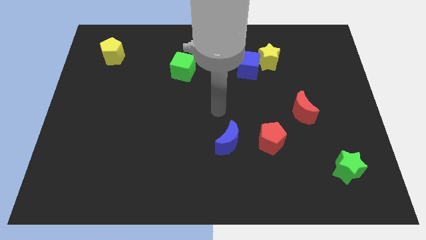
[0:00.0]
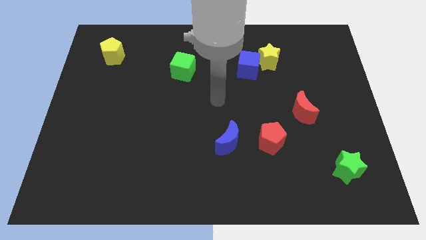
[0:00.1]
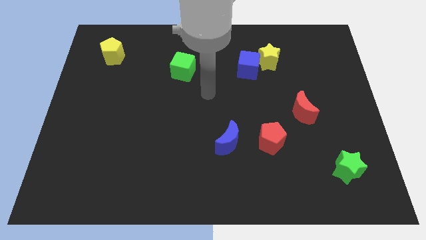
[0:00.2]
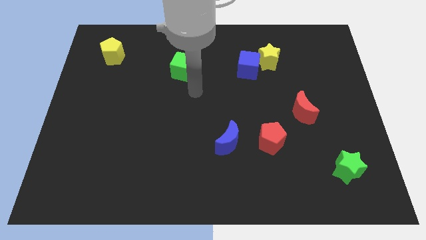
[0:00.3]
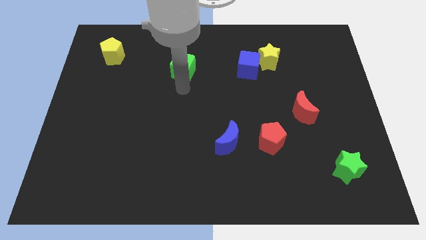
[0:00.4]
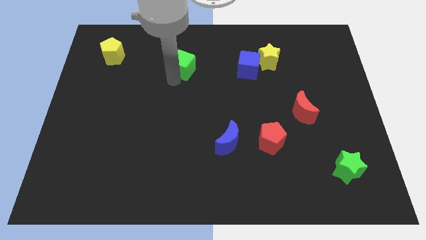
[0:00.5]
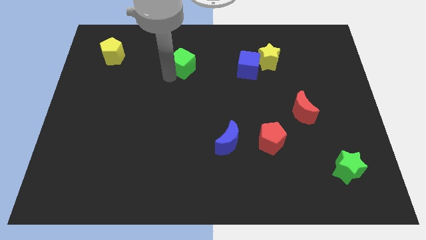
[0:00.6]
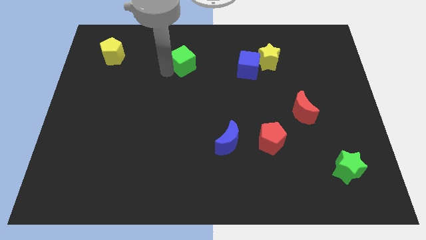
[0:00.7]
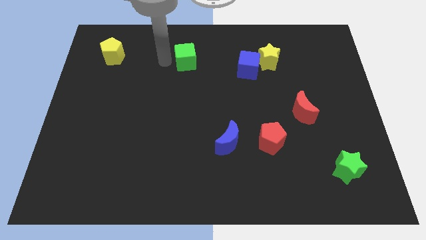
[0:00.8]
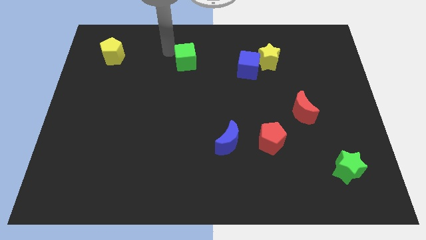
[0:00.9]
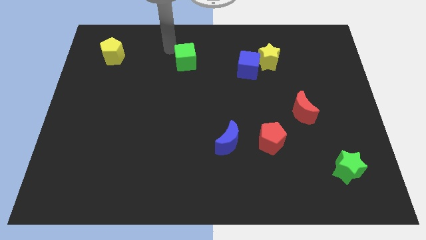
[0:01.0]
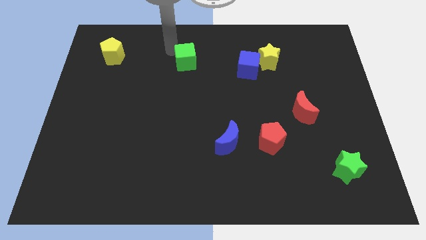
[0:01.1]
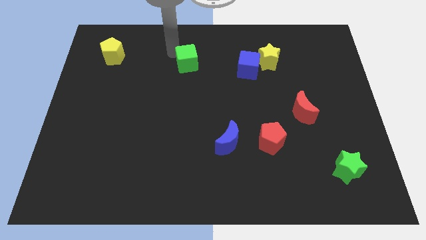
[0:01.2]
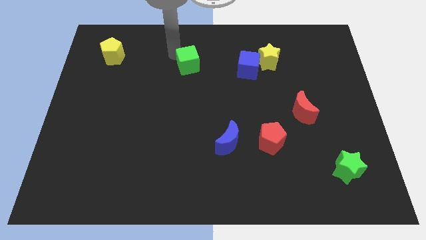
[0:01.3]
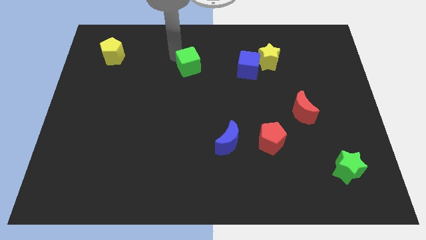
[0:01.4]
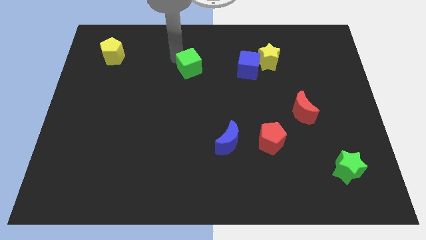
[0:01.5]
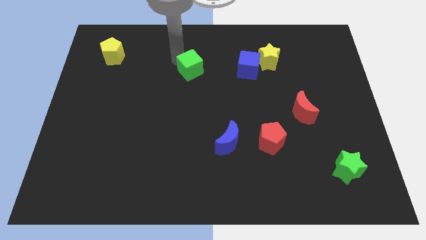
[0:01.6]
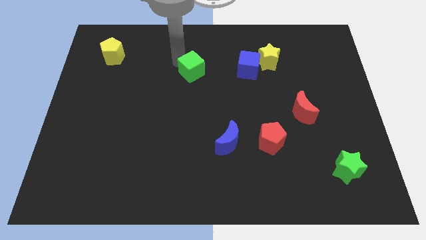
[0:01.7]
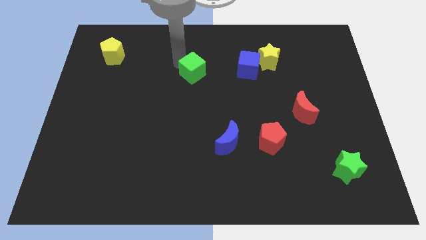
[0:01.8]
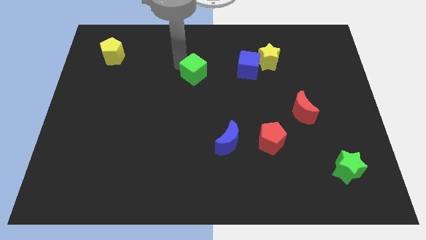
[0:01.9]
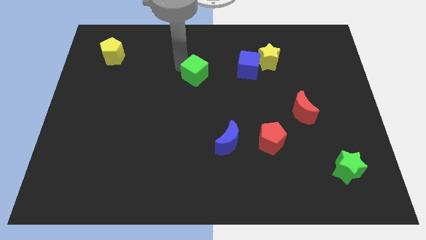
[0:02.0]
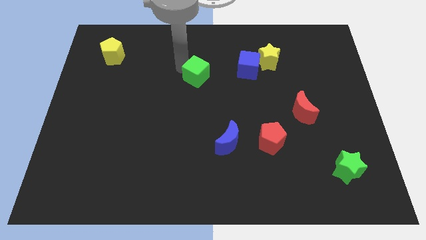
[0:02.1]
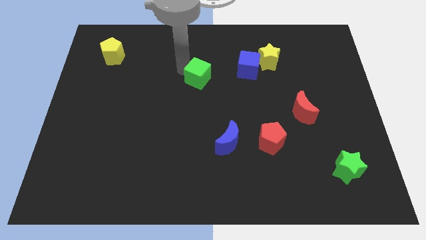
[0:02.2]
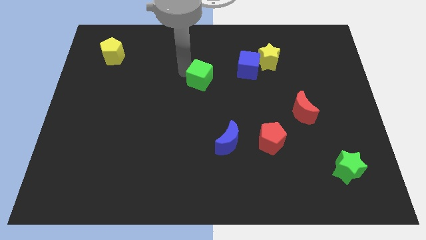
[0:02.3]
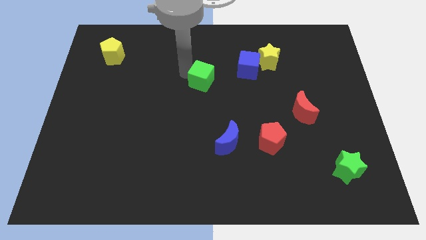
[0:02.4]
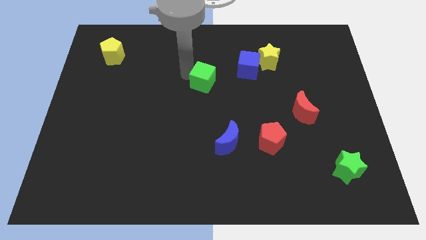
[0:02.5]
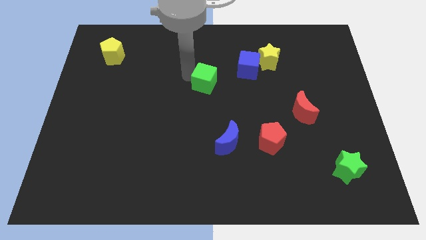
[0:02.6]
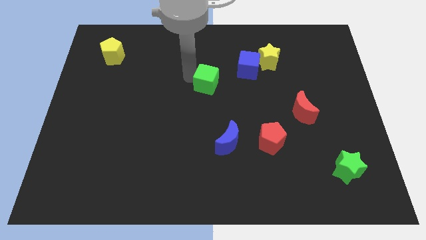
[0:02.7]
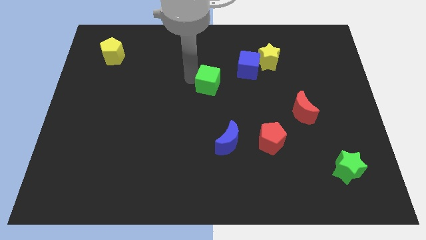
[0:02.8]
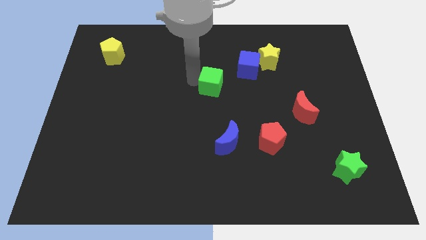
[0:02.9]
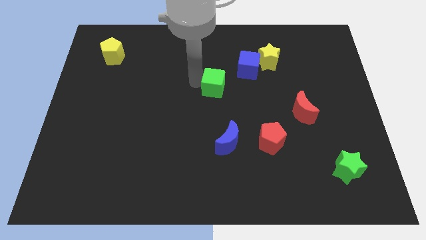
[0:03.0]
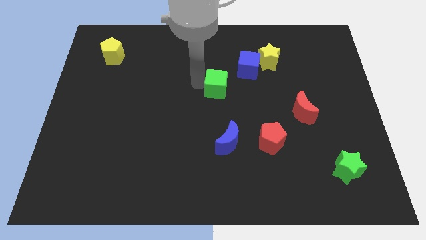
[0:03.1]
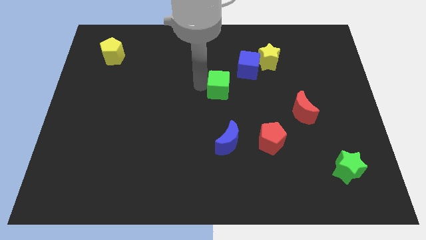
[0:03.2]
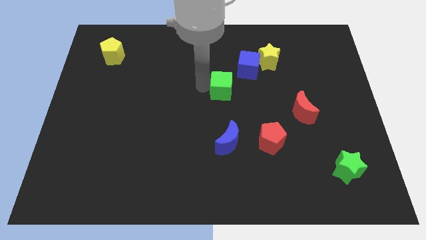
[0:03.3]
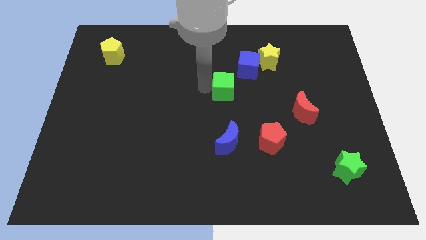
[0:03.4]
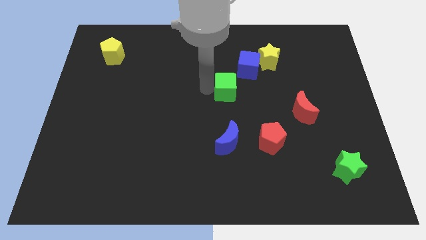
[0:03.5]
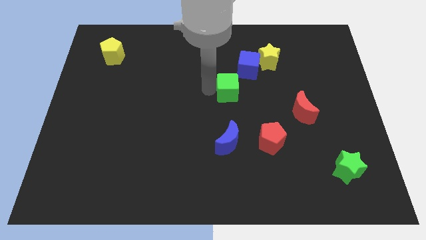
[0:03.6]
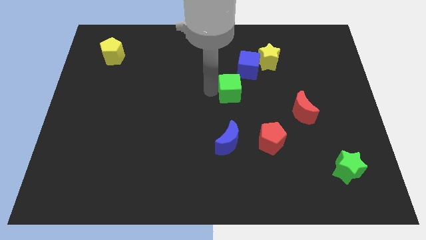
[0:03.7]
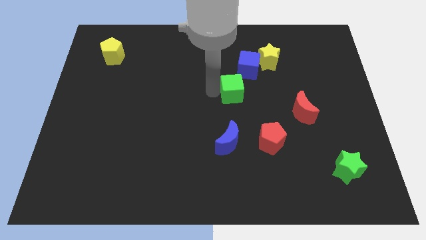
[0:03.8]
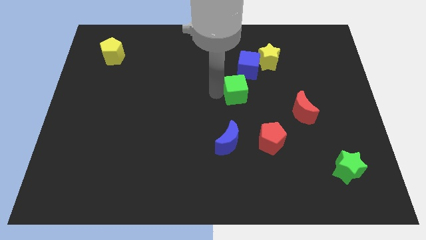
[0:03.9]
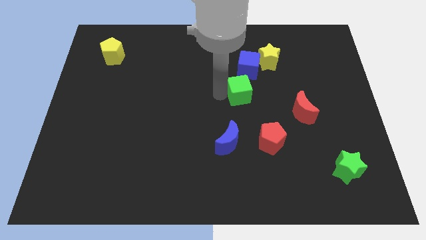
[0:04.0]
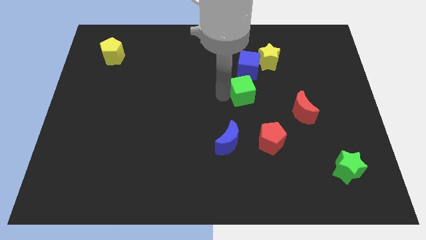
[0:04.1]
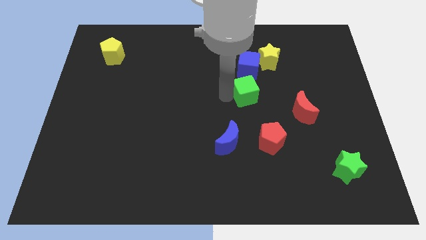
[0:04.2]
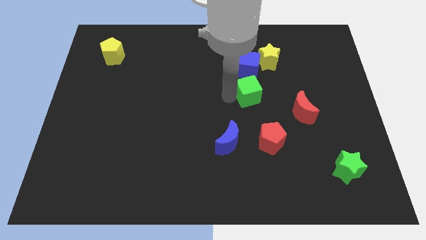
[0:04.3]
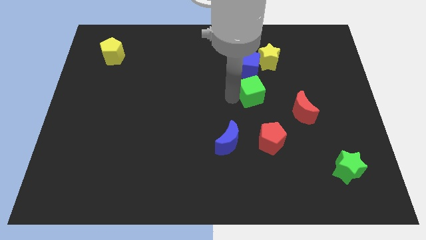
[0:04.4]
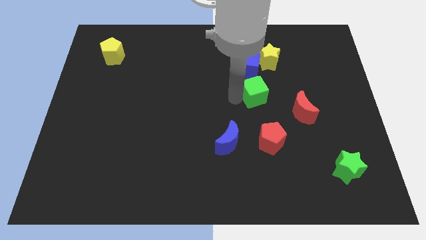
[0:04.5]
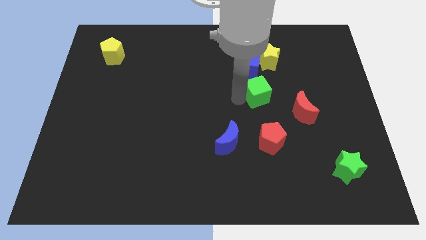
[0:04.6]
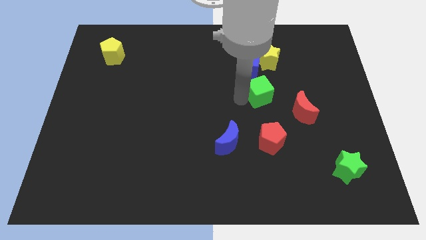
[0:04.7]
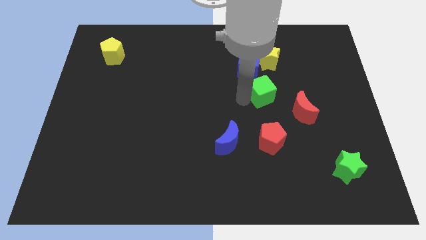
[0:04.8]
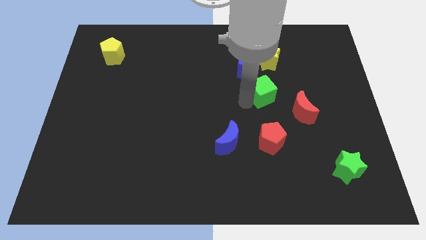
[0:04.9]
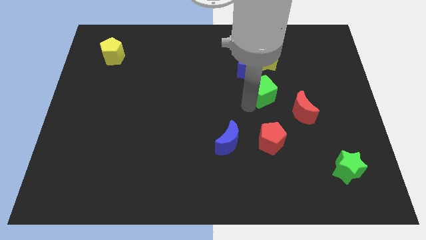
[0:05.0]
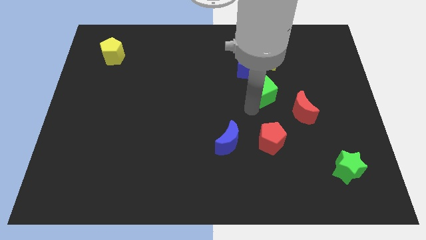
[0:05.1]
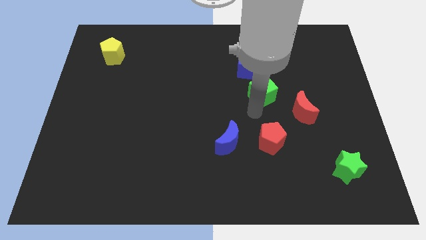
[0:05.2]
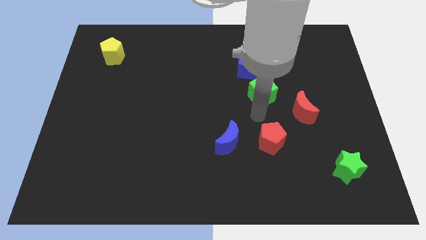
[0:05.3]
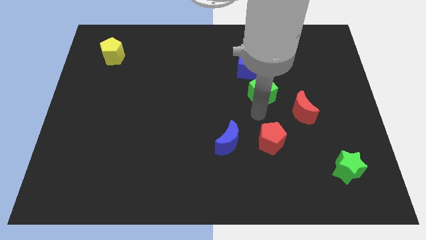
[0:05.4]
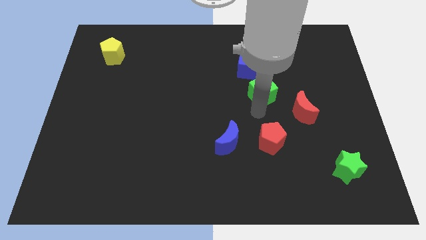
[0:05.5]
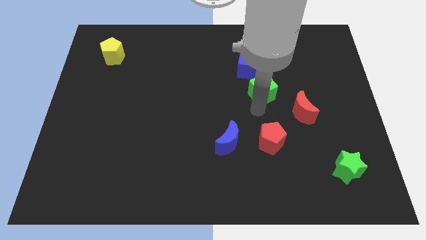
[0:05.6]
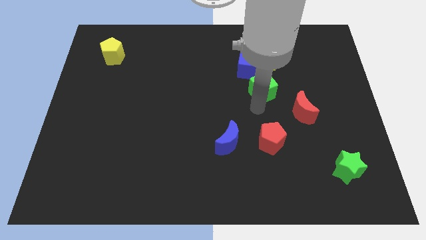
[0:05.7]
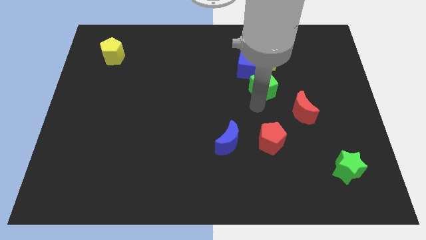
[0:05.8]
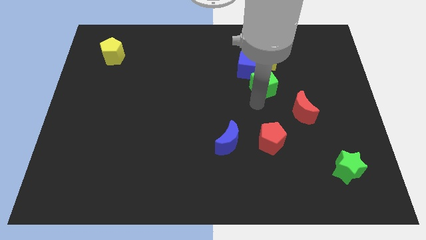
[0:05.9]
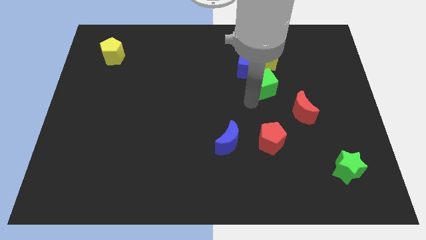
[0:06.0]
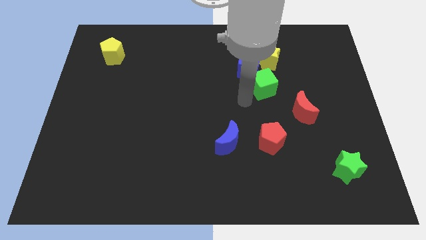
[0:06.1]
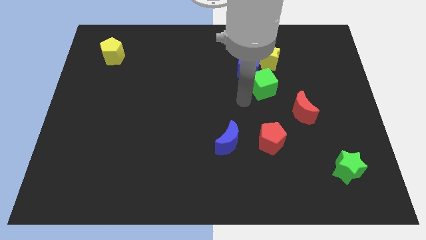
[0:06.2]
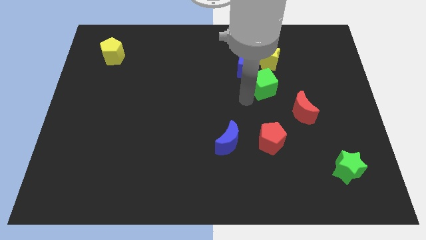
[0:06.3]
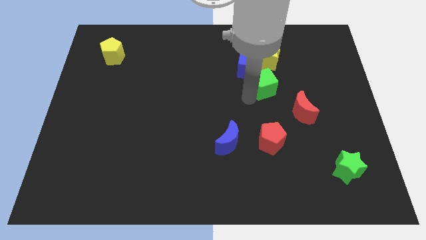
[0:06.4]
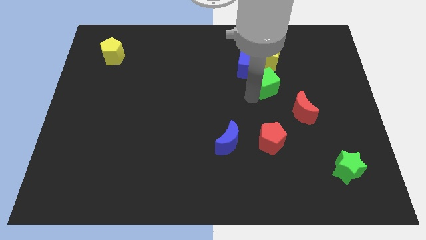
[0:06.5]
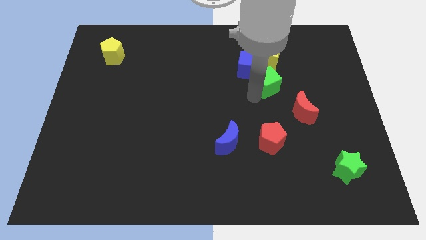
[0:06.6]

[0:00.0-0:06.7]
move the green cube right

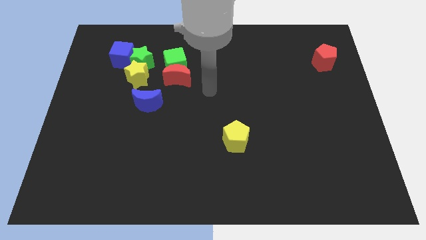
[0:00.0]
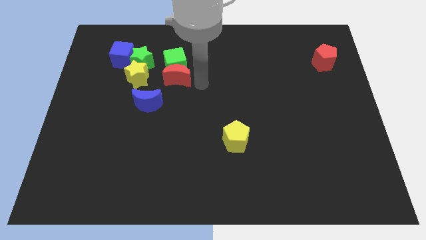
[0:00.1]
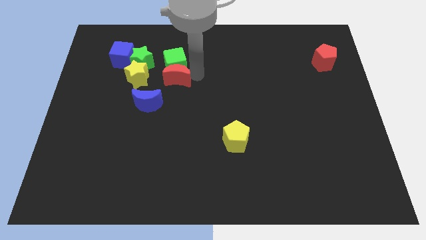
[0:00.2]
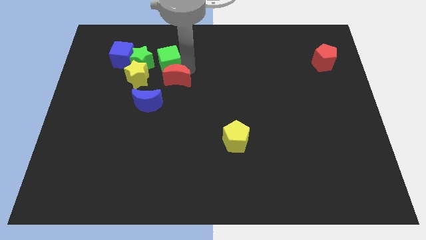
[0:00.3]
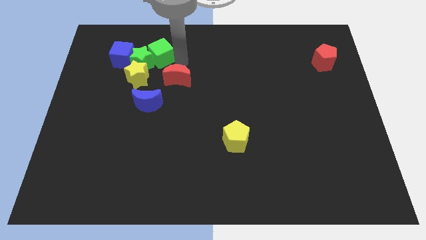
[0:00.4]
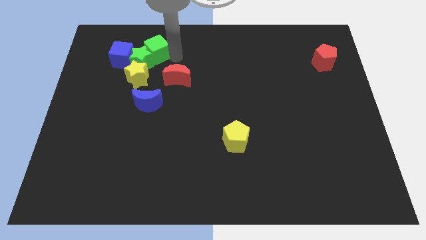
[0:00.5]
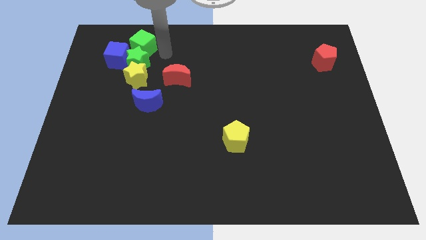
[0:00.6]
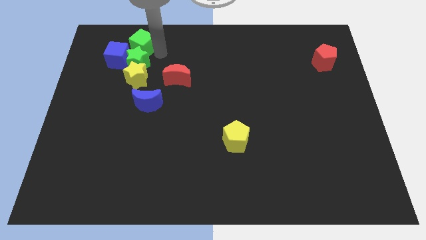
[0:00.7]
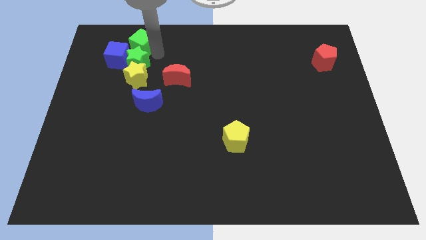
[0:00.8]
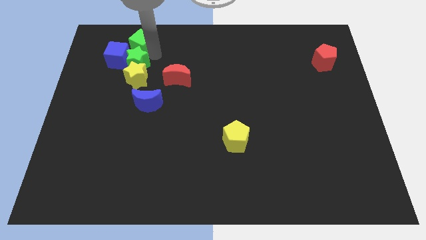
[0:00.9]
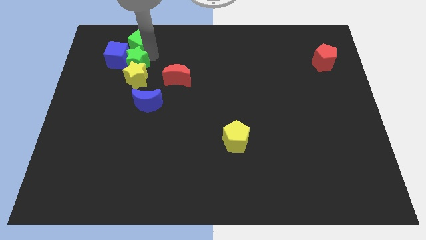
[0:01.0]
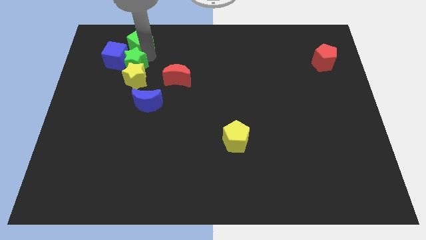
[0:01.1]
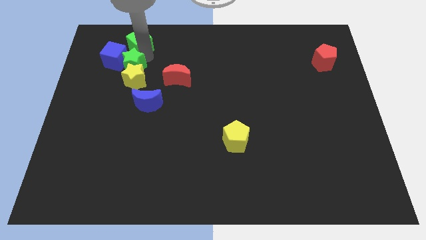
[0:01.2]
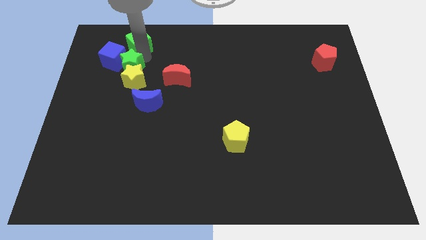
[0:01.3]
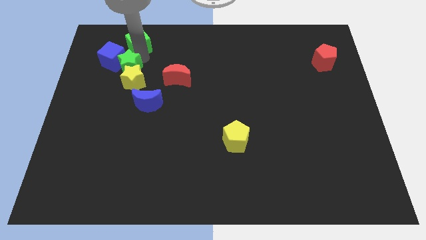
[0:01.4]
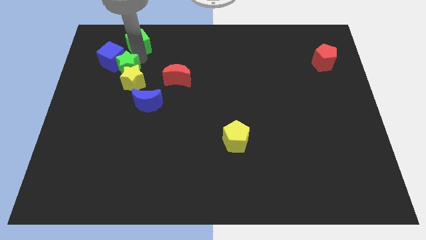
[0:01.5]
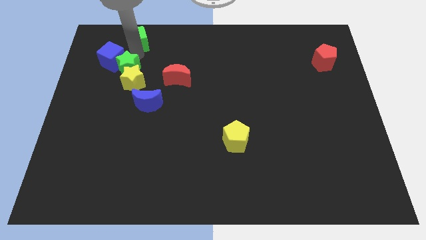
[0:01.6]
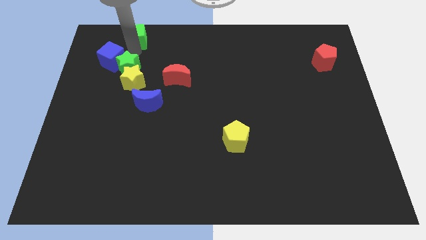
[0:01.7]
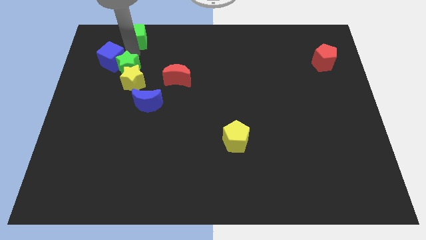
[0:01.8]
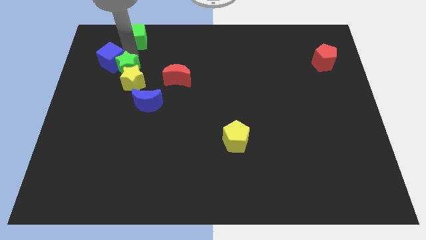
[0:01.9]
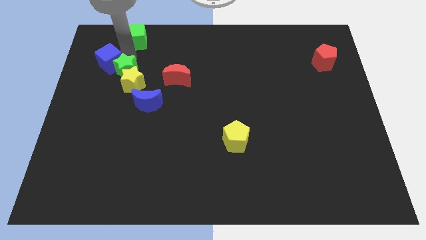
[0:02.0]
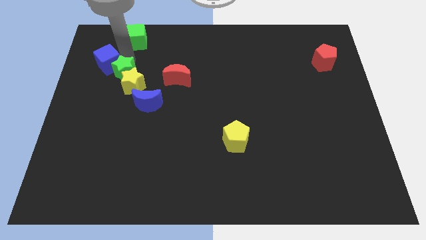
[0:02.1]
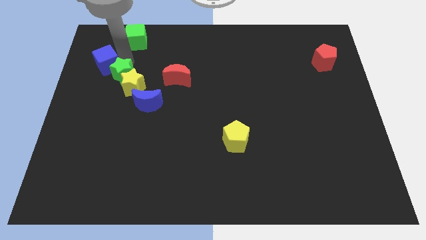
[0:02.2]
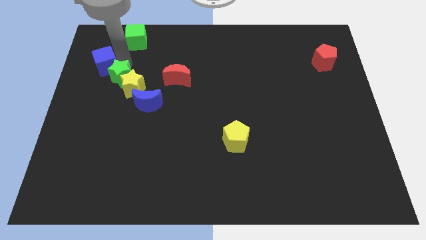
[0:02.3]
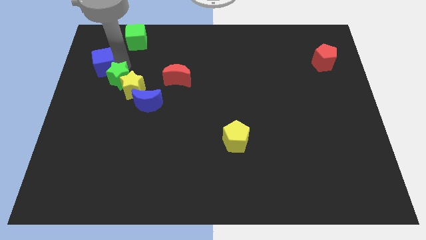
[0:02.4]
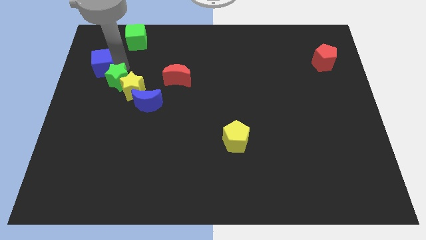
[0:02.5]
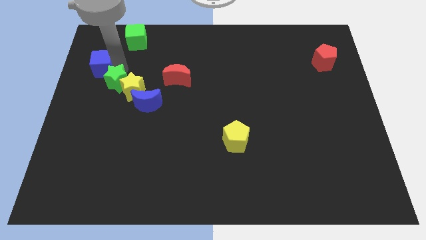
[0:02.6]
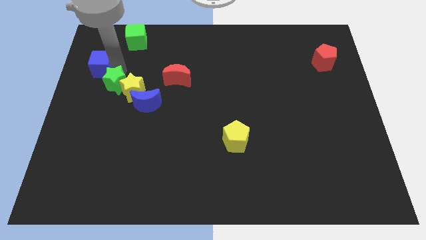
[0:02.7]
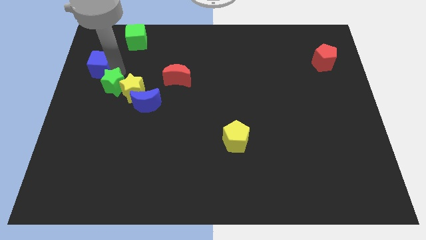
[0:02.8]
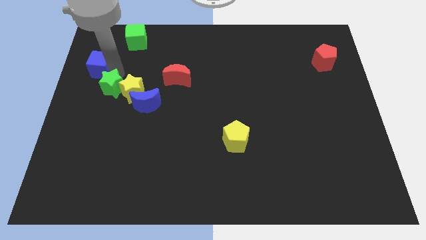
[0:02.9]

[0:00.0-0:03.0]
move the green star downwards a little
